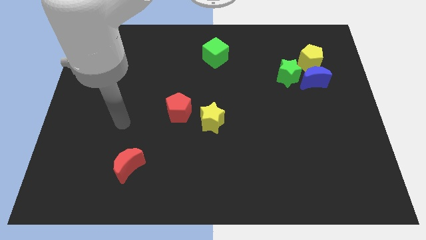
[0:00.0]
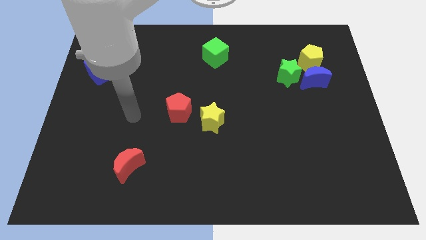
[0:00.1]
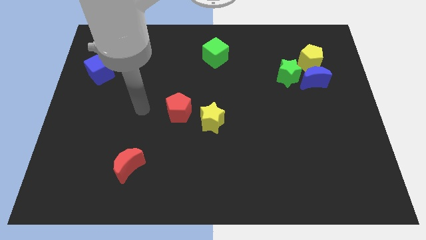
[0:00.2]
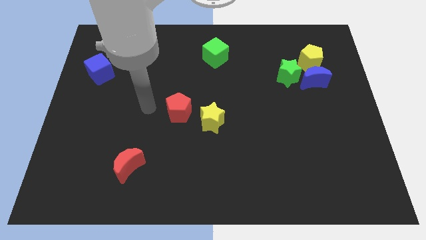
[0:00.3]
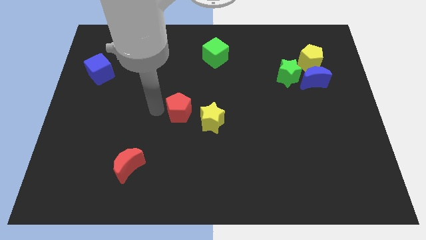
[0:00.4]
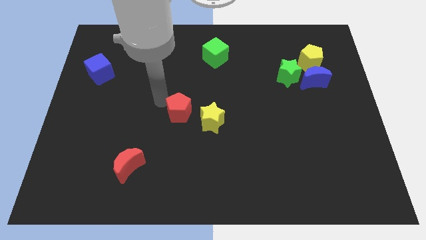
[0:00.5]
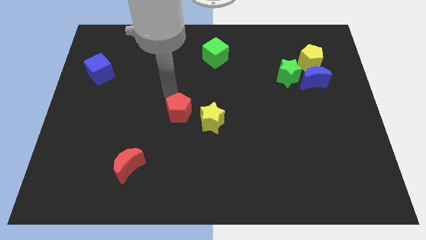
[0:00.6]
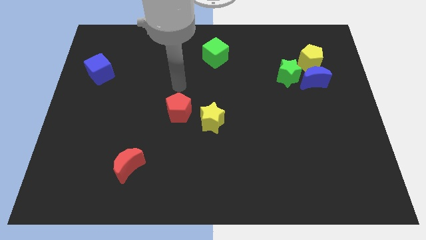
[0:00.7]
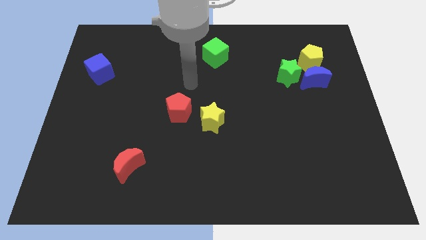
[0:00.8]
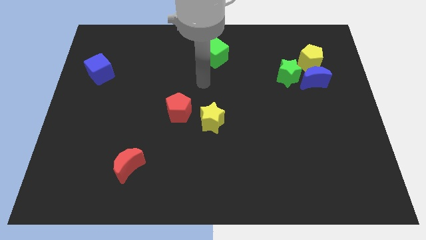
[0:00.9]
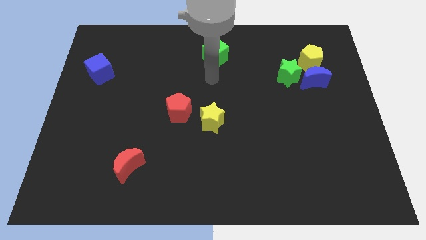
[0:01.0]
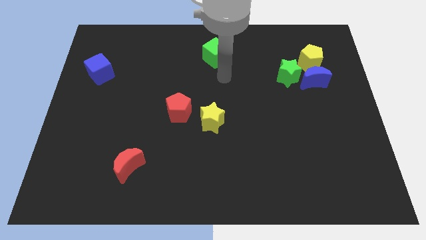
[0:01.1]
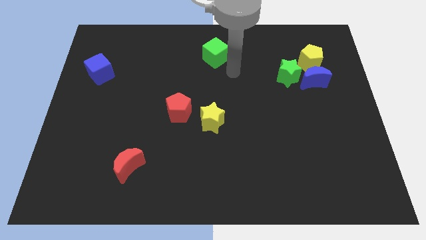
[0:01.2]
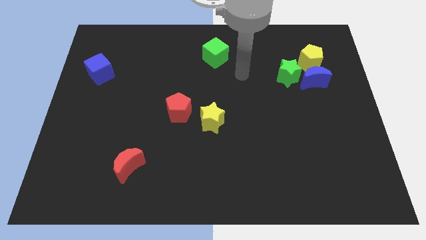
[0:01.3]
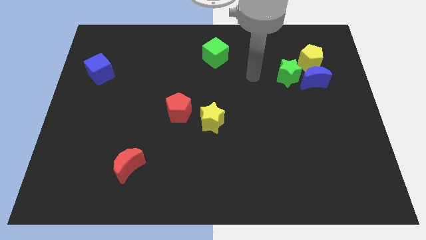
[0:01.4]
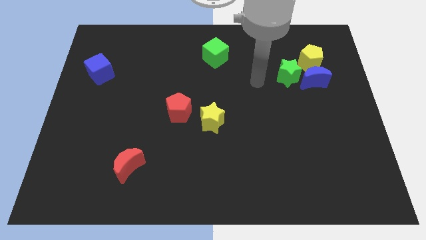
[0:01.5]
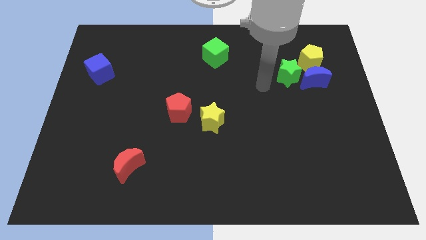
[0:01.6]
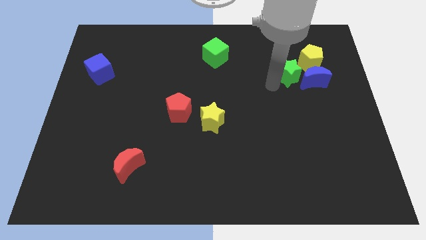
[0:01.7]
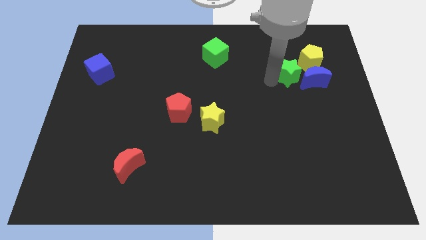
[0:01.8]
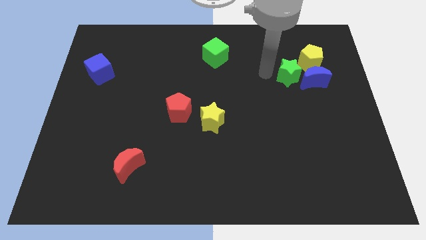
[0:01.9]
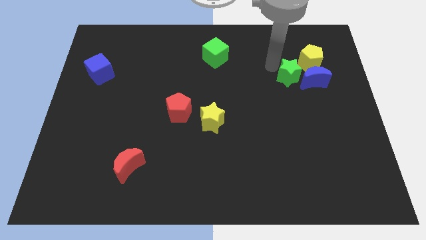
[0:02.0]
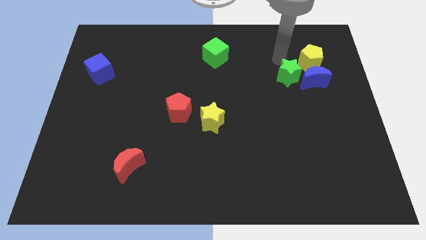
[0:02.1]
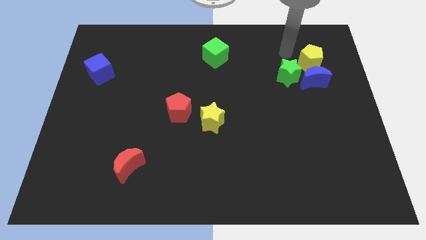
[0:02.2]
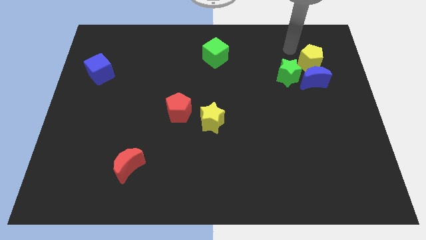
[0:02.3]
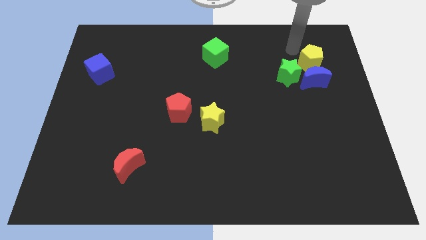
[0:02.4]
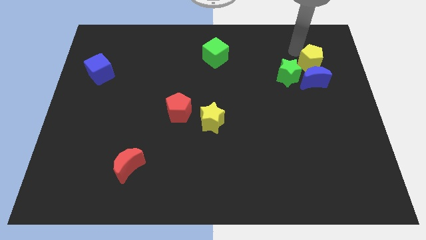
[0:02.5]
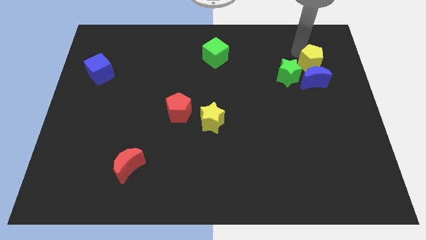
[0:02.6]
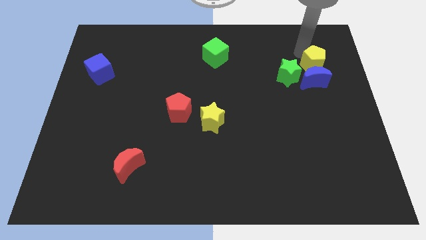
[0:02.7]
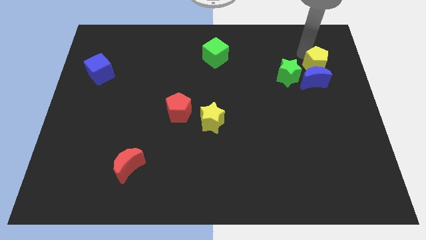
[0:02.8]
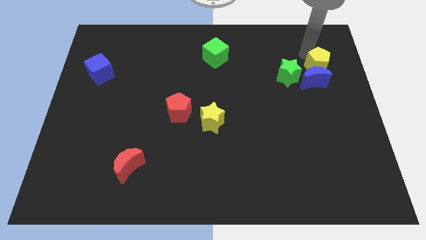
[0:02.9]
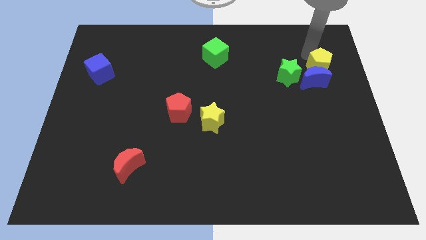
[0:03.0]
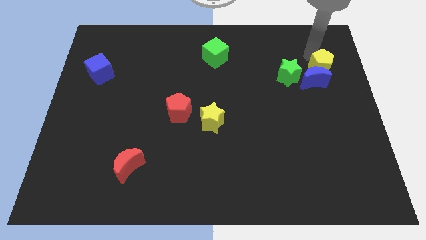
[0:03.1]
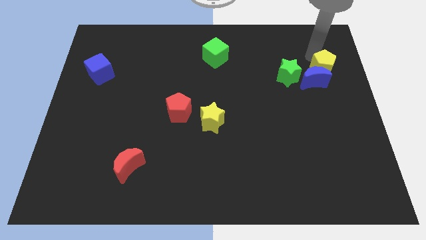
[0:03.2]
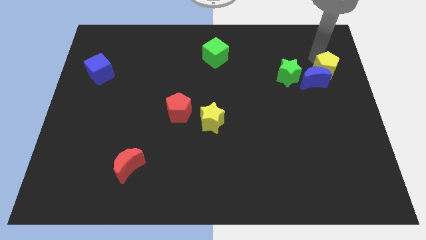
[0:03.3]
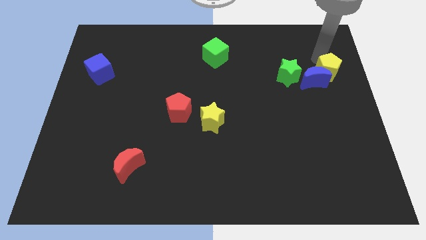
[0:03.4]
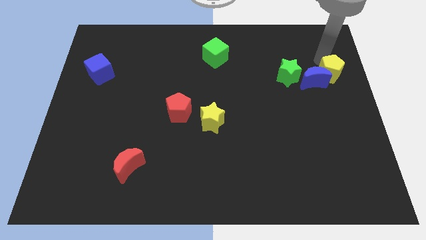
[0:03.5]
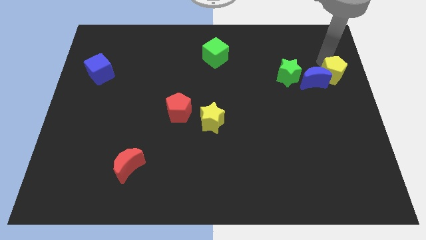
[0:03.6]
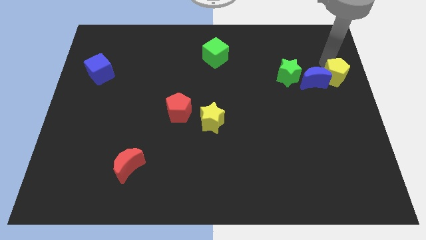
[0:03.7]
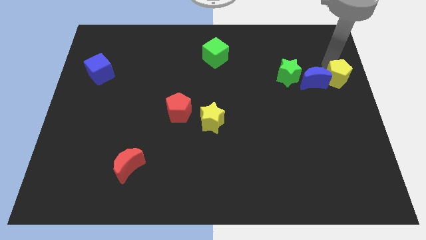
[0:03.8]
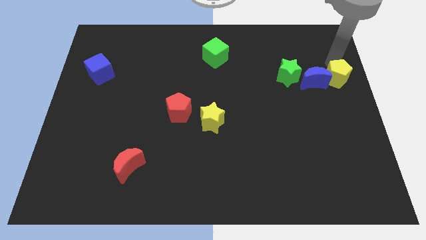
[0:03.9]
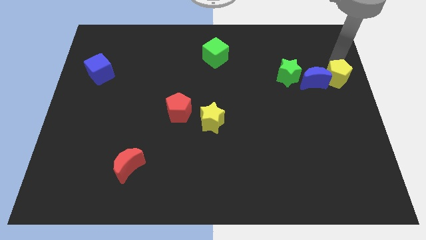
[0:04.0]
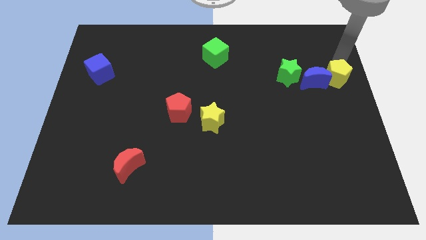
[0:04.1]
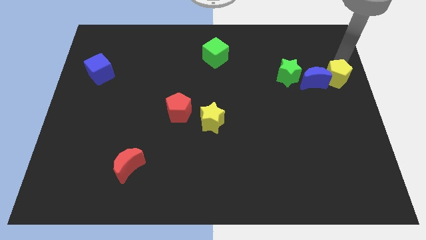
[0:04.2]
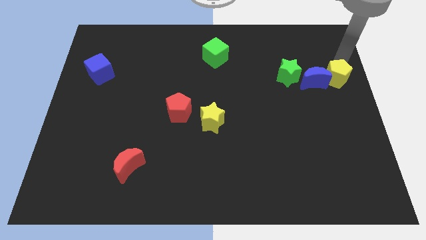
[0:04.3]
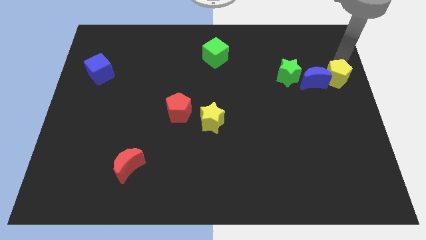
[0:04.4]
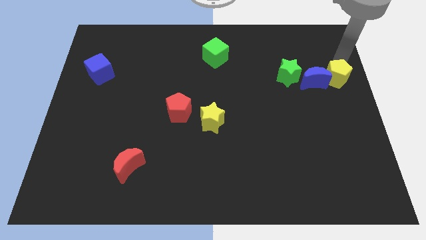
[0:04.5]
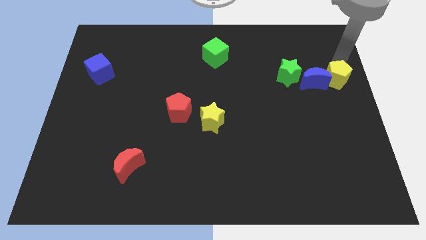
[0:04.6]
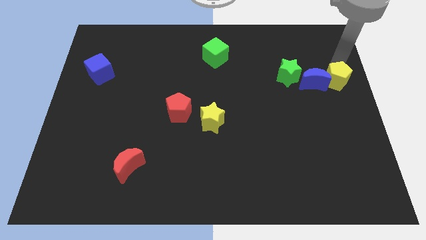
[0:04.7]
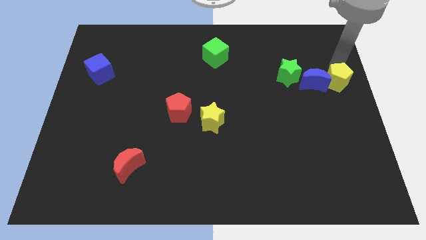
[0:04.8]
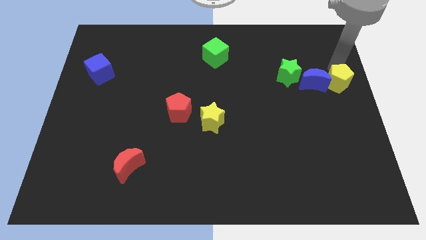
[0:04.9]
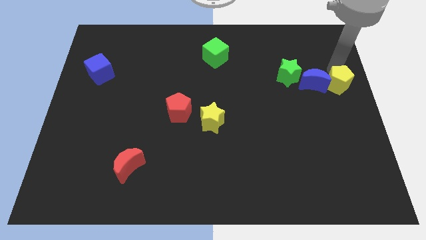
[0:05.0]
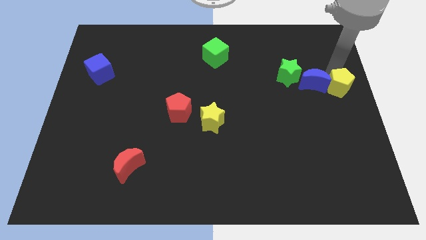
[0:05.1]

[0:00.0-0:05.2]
push the yellow pentagon downwards a bit

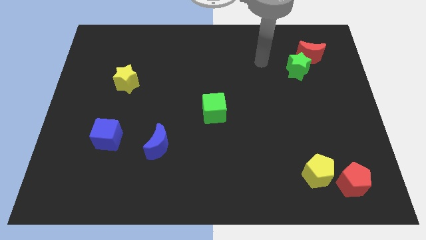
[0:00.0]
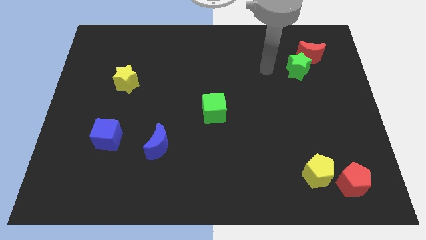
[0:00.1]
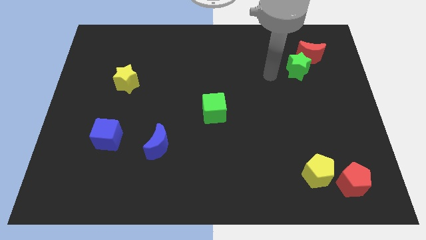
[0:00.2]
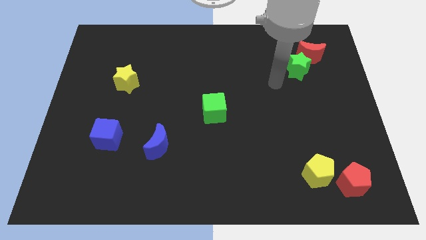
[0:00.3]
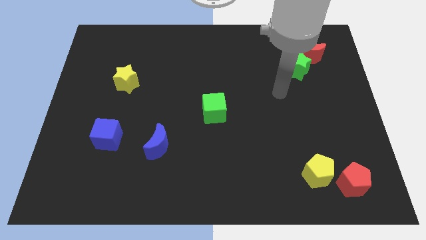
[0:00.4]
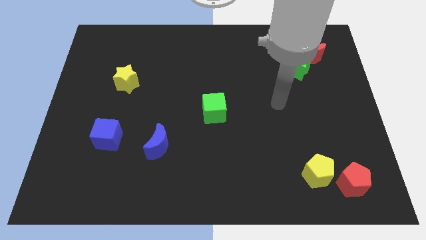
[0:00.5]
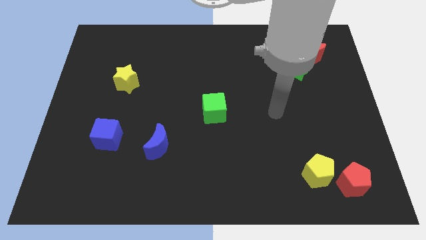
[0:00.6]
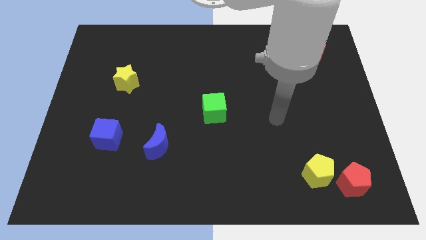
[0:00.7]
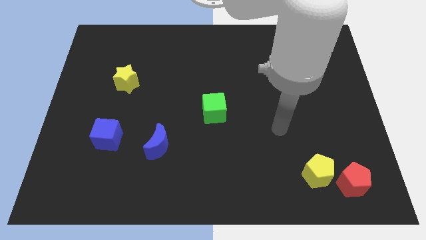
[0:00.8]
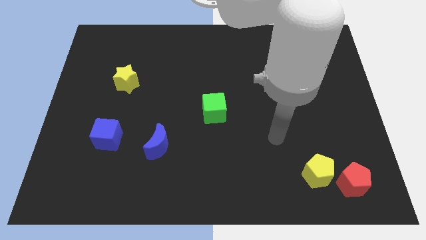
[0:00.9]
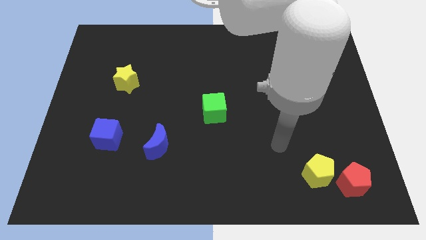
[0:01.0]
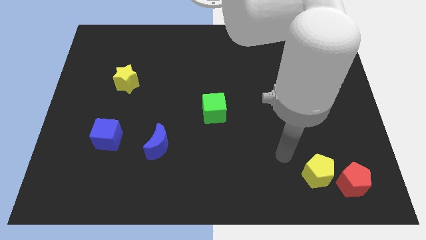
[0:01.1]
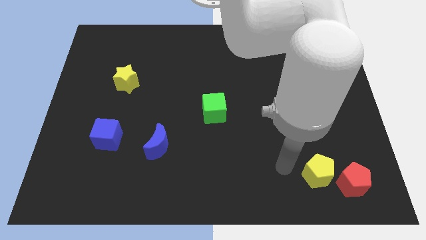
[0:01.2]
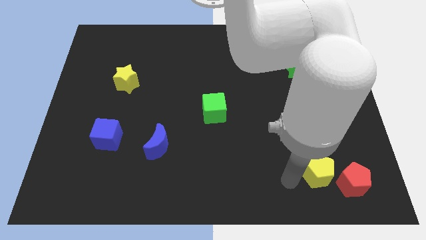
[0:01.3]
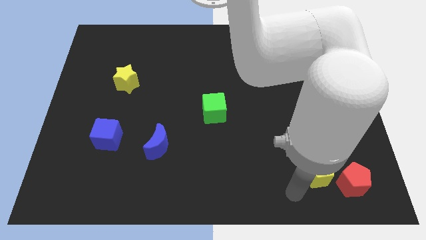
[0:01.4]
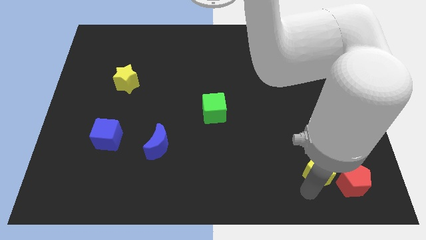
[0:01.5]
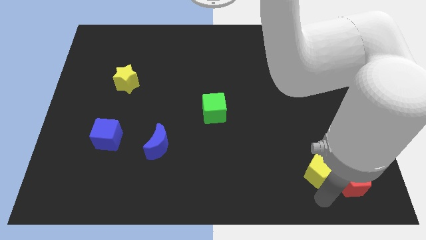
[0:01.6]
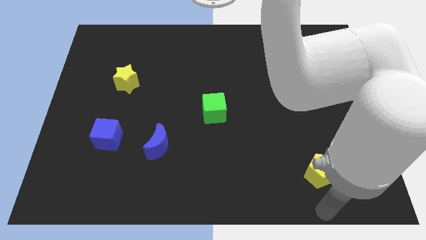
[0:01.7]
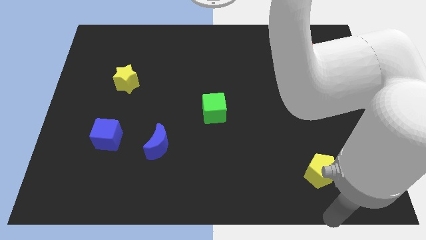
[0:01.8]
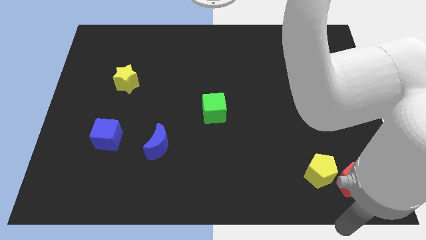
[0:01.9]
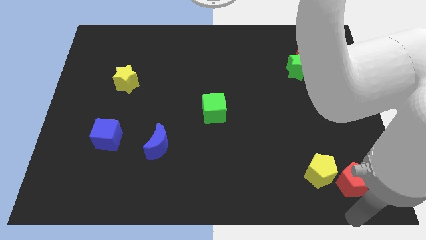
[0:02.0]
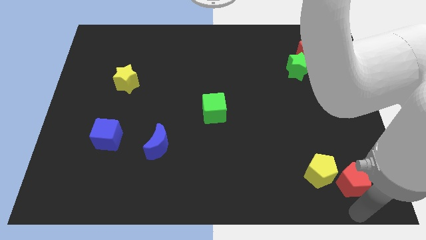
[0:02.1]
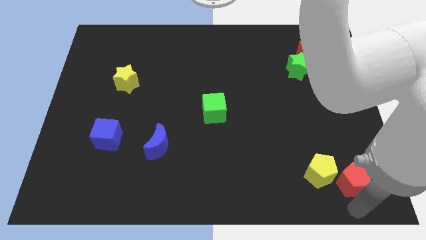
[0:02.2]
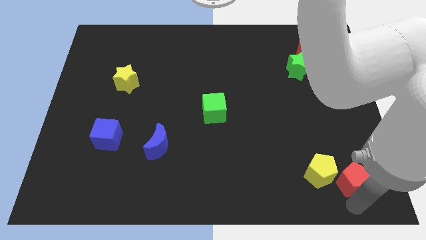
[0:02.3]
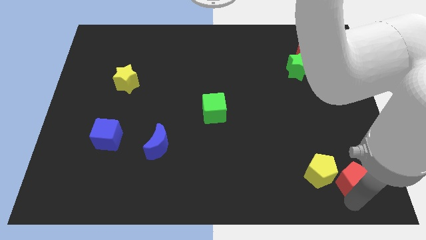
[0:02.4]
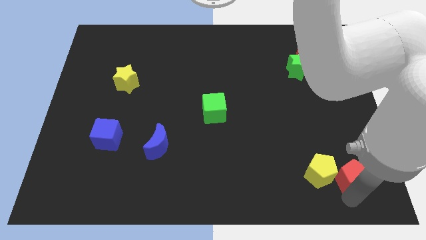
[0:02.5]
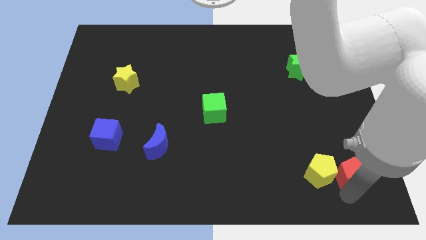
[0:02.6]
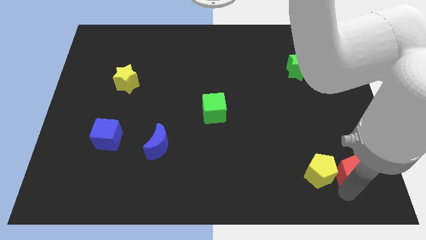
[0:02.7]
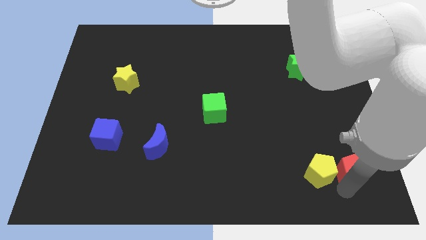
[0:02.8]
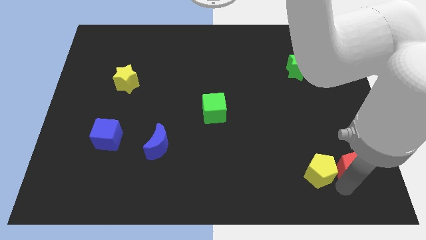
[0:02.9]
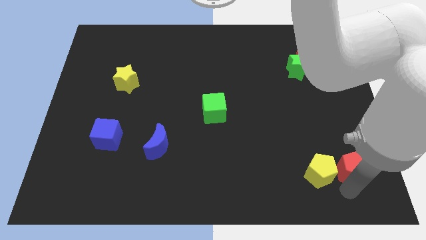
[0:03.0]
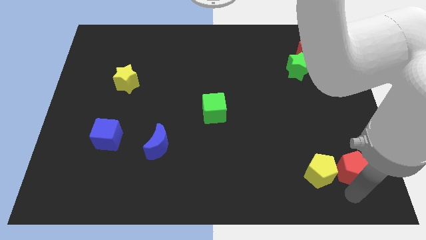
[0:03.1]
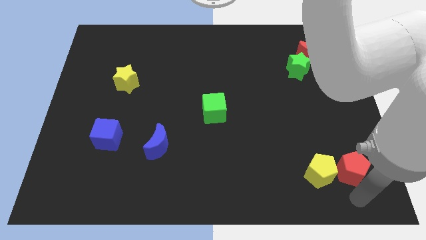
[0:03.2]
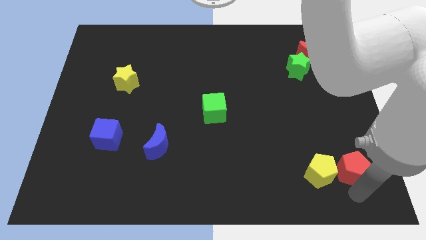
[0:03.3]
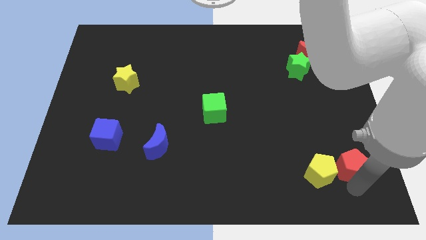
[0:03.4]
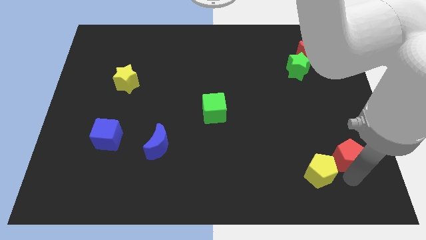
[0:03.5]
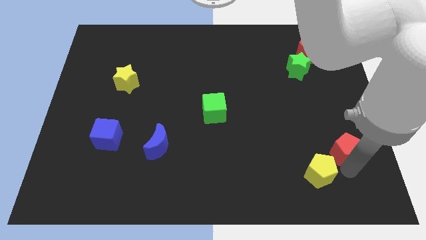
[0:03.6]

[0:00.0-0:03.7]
move the red pentagon a bit upwards
